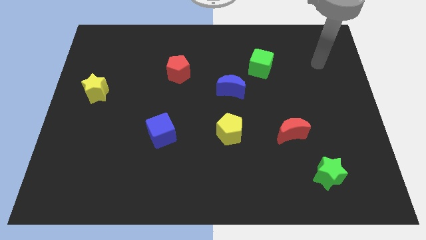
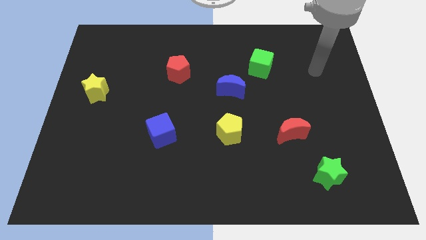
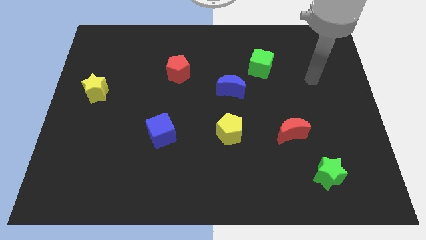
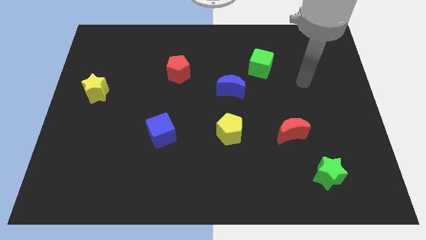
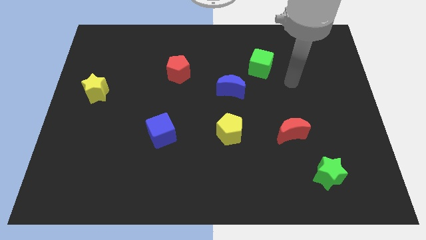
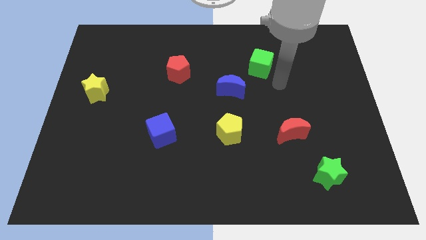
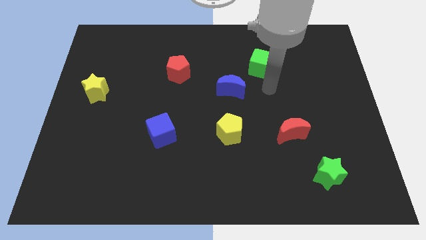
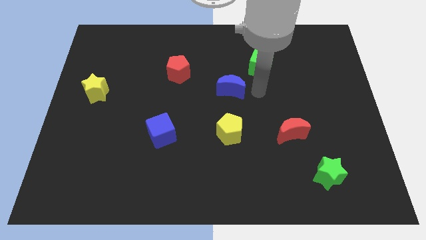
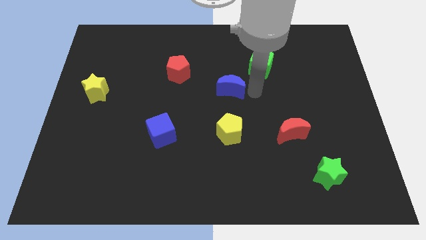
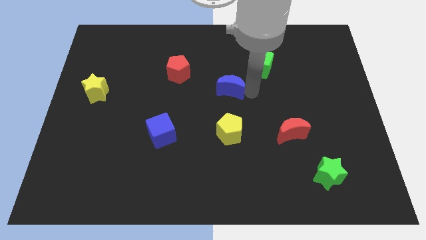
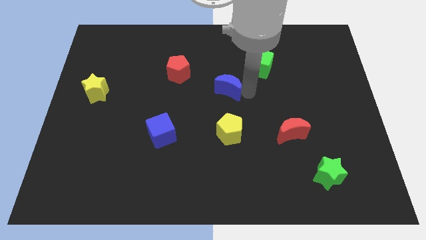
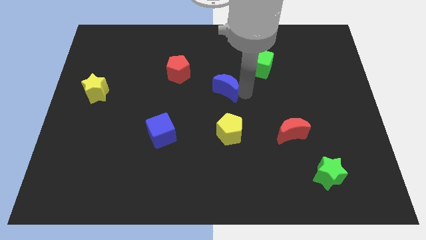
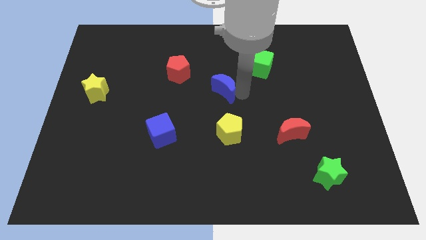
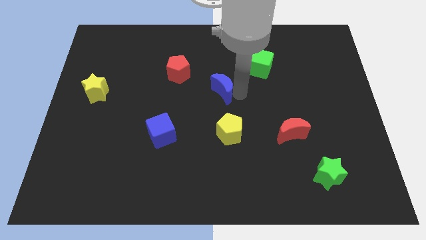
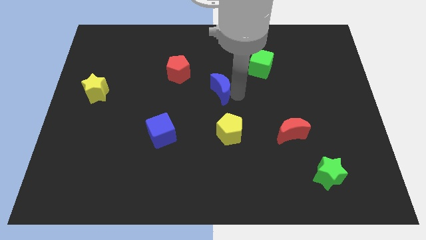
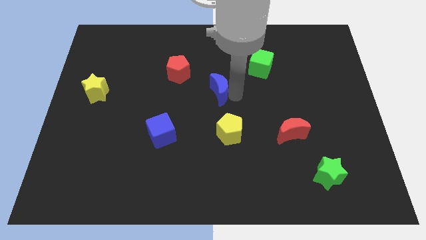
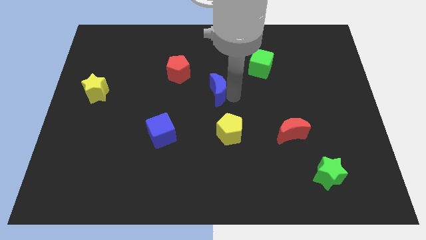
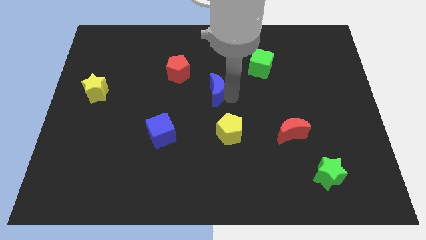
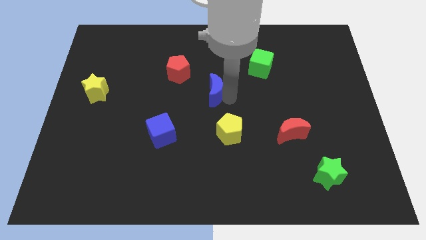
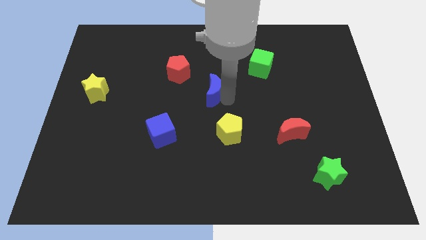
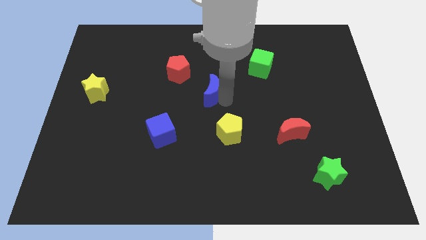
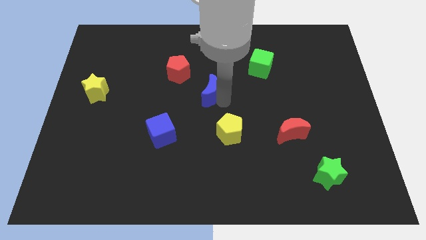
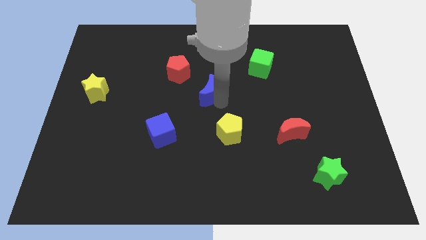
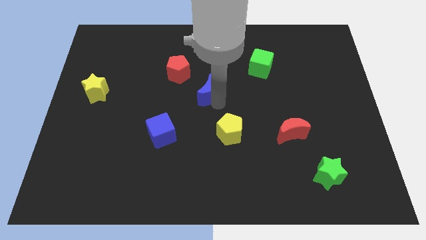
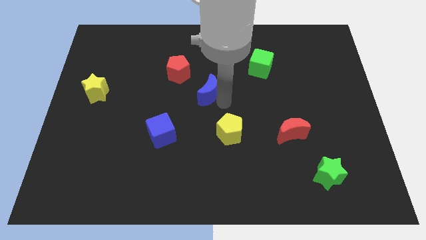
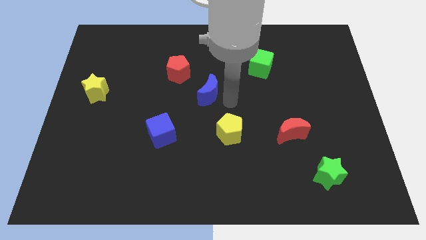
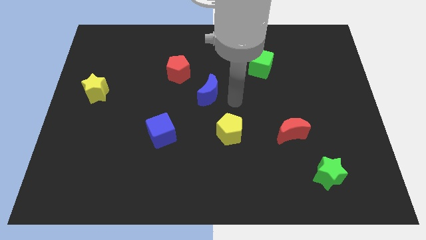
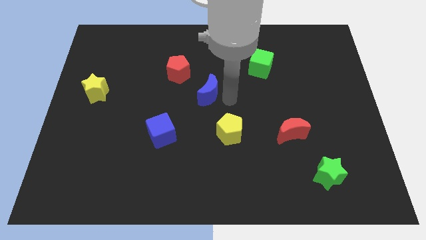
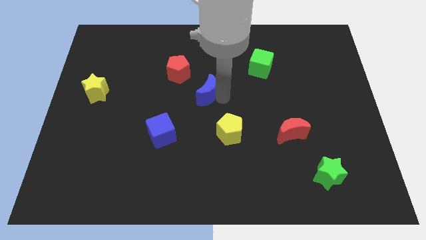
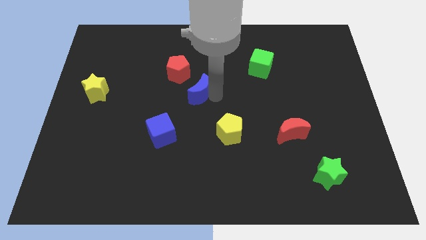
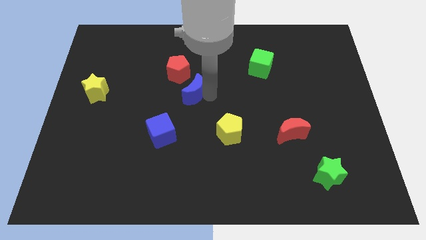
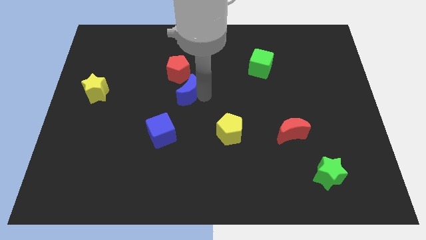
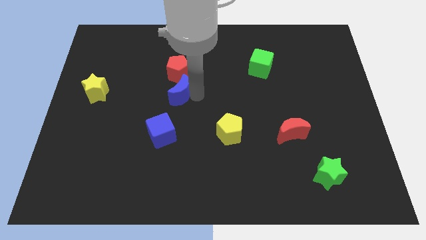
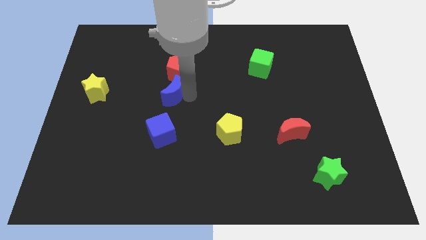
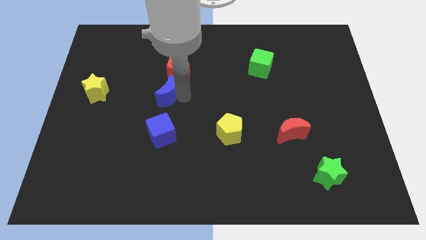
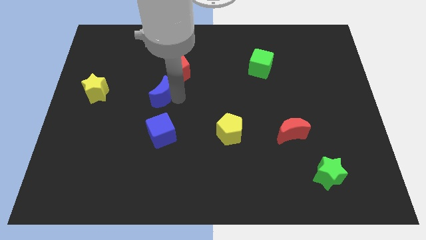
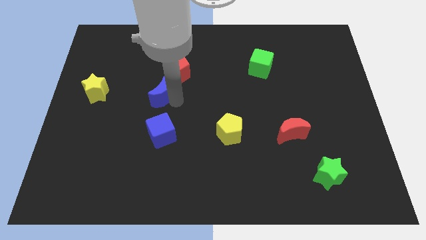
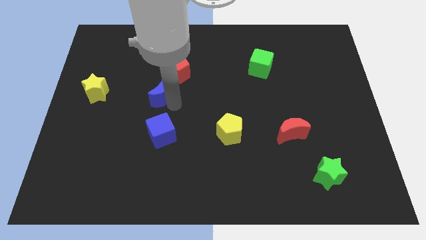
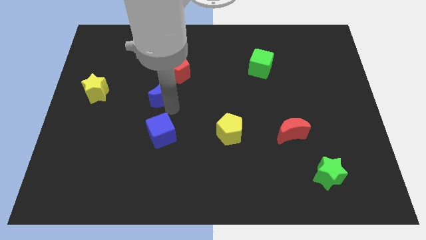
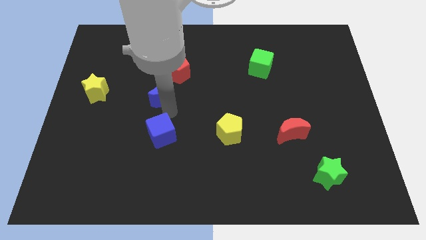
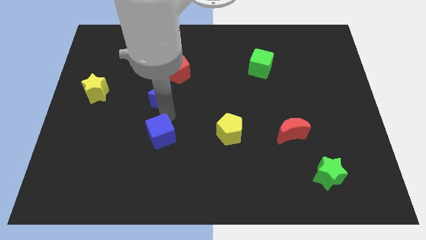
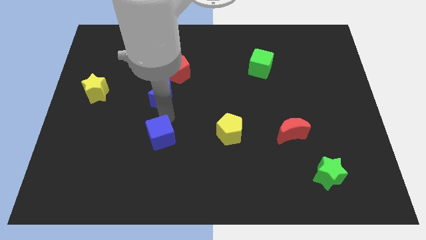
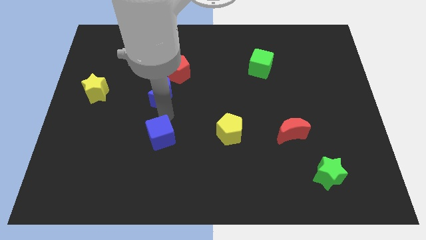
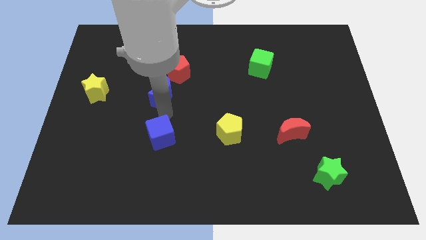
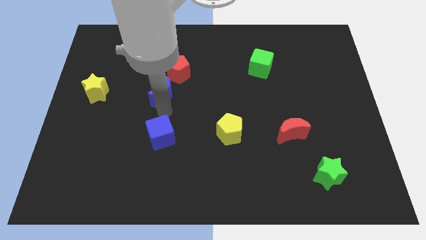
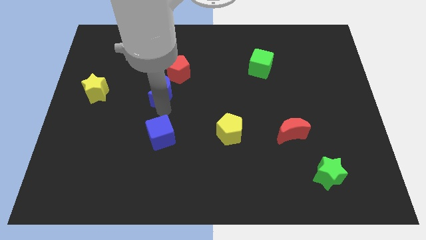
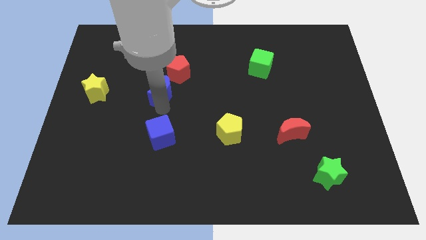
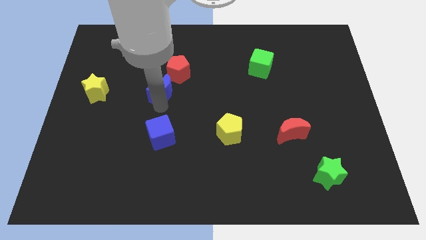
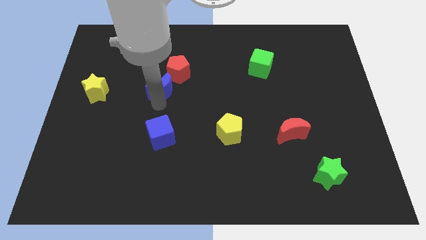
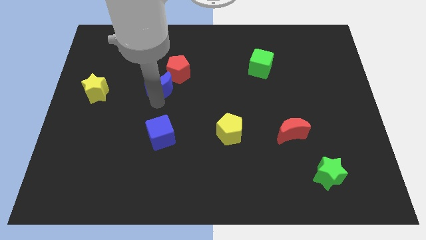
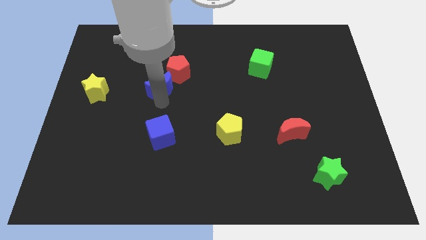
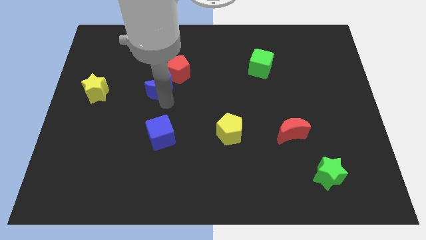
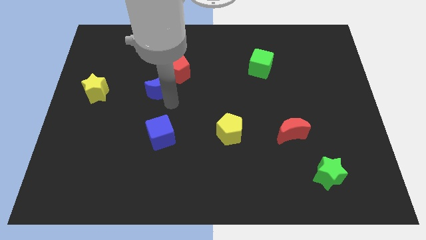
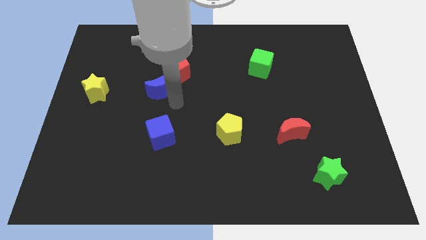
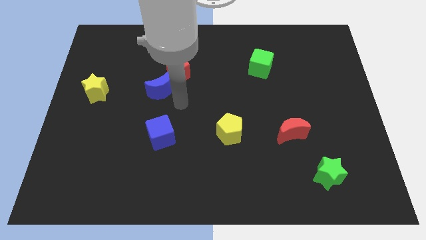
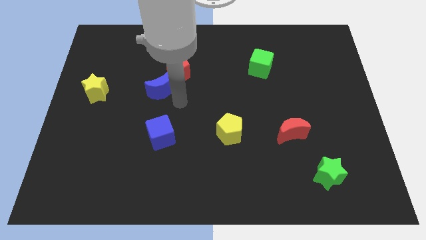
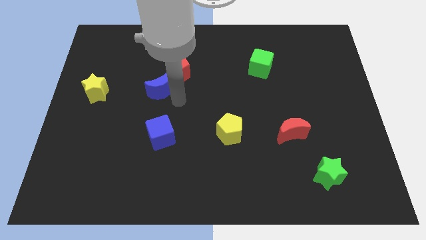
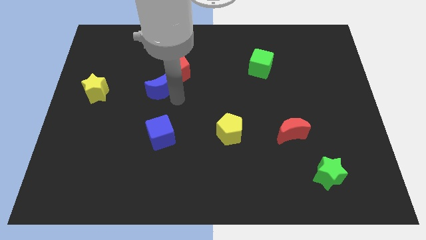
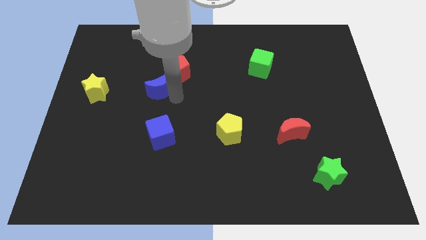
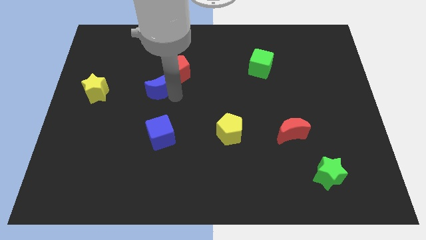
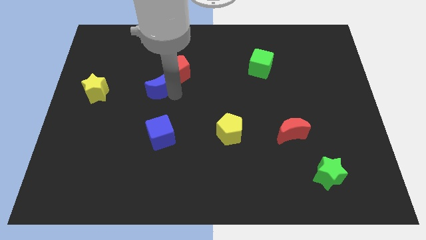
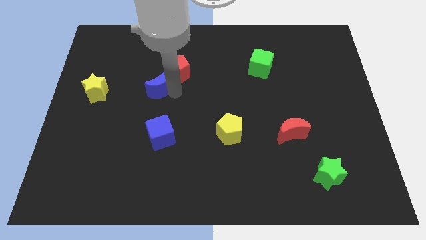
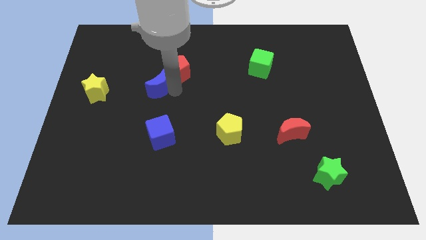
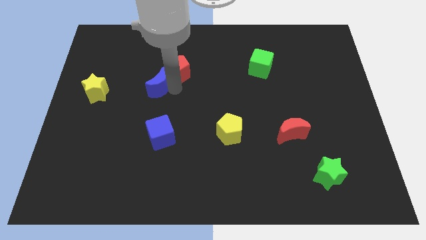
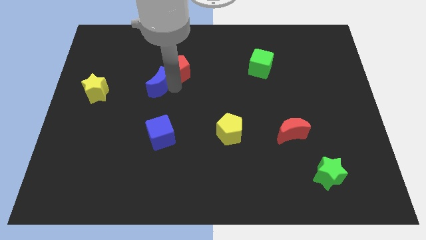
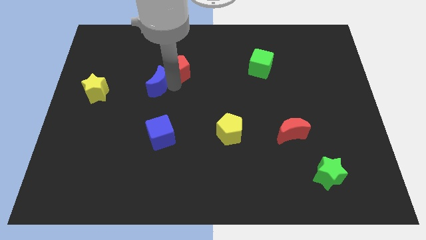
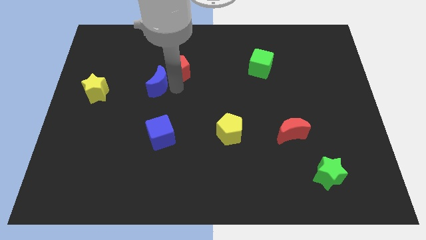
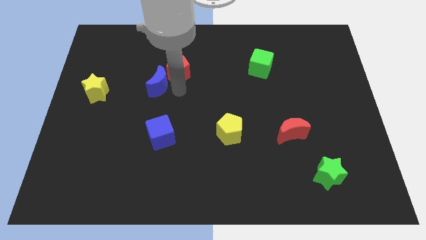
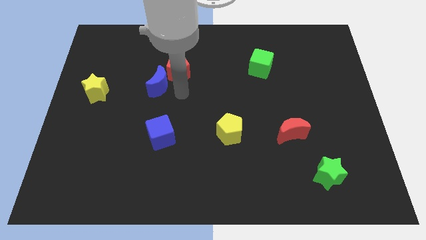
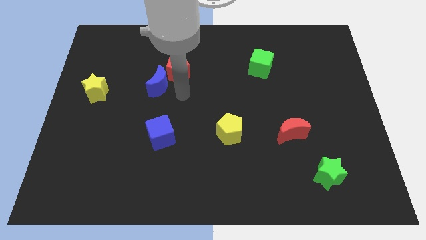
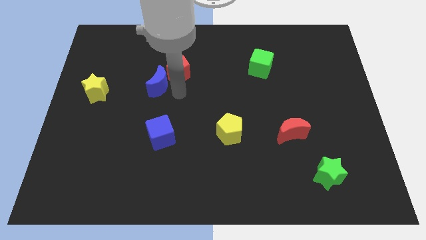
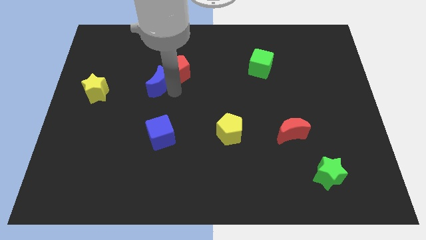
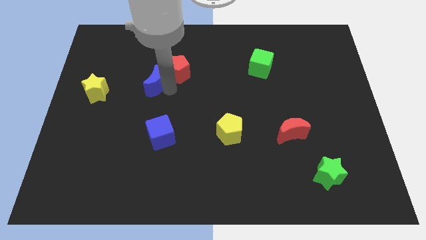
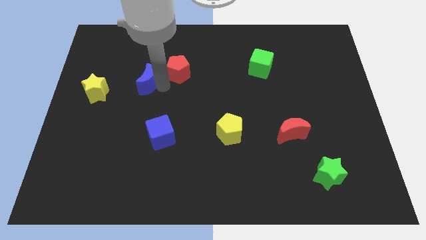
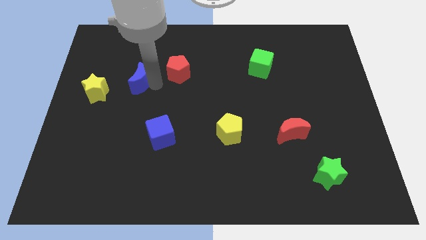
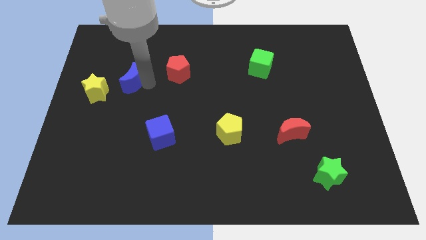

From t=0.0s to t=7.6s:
slide the blue moon to the top right side of the yellow star

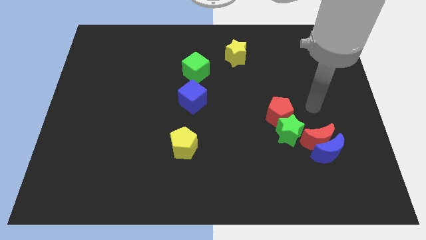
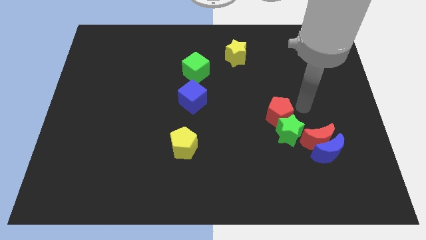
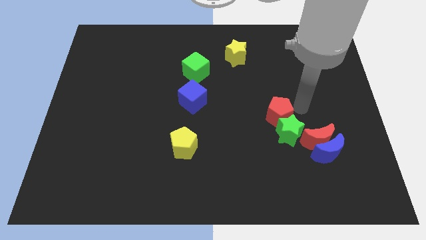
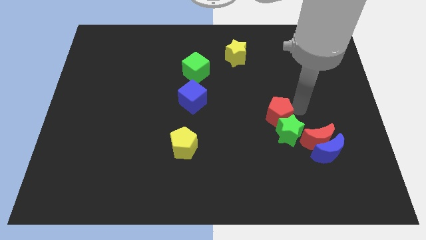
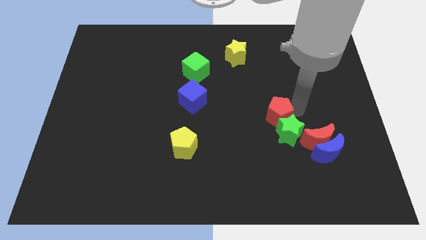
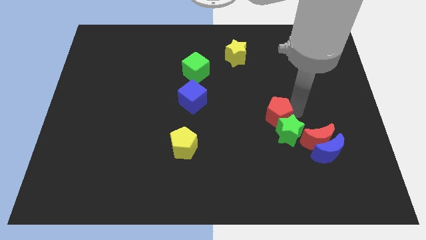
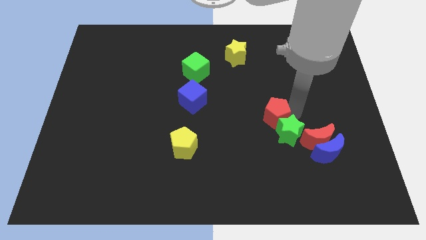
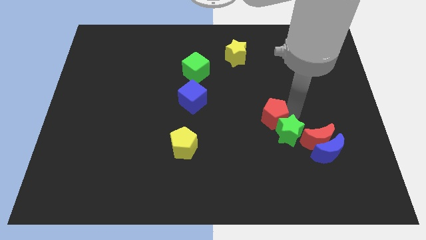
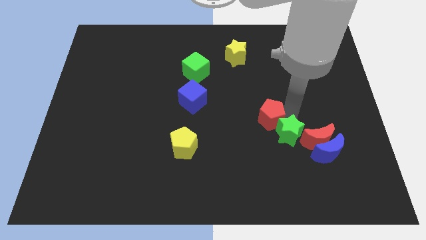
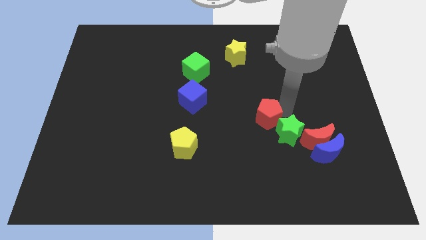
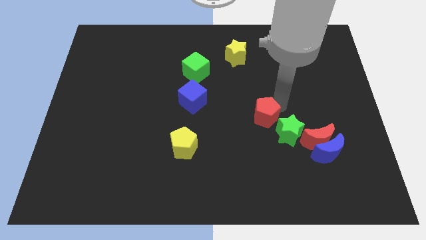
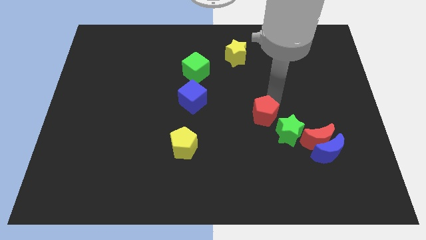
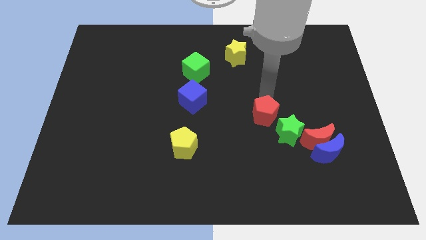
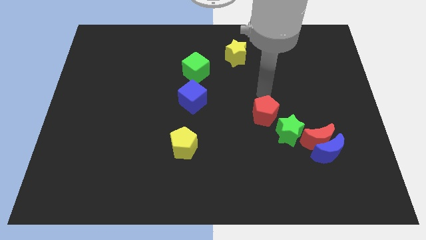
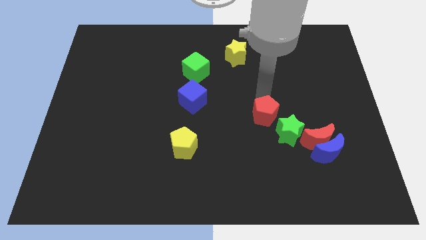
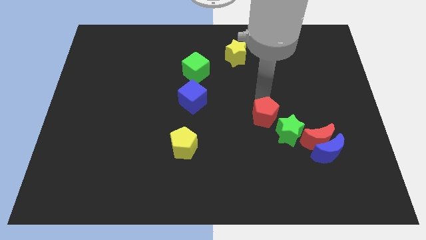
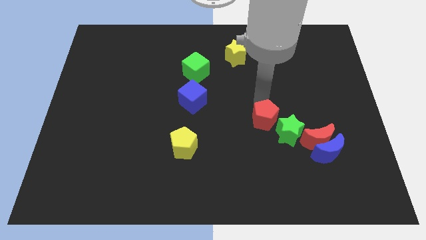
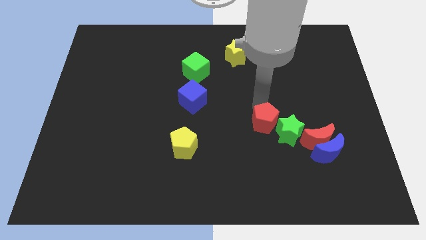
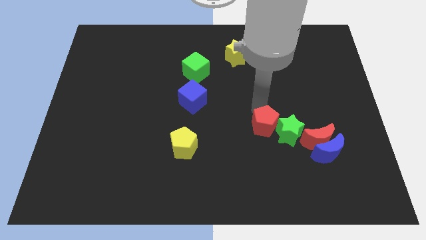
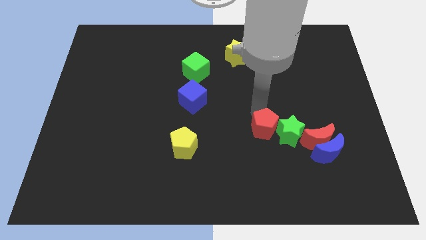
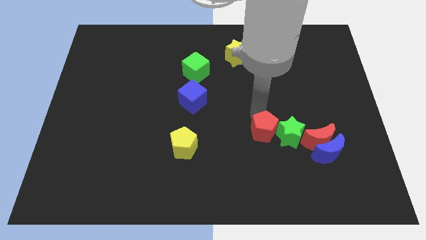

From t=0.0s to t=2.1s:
slide the red pentagon to the bottom left side of the green star
